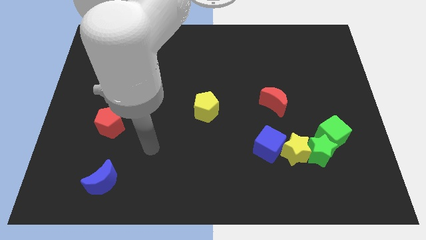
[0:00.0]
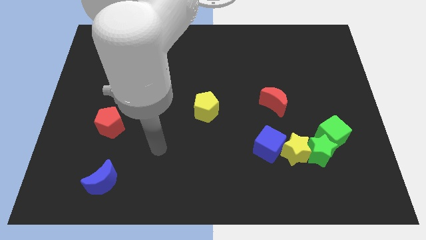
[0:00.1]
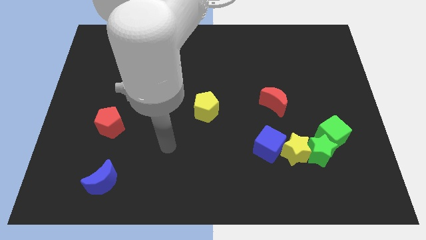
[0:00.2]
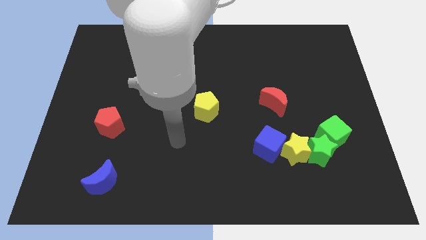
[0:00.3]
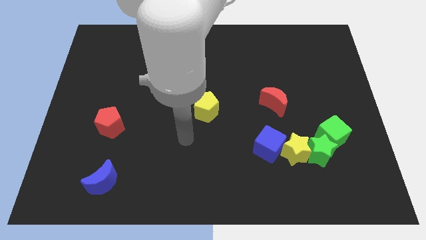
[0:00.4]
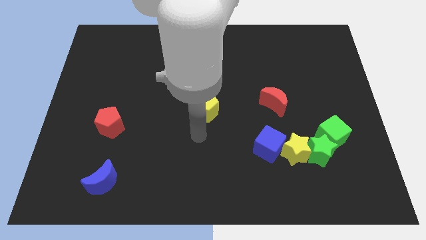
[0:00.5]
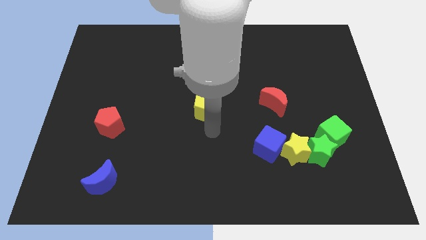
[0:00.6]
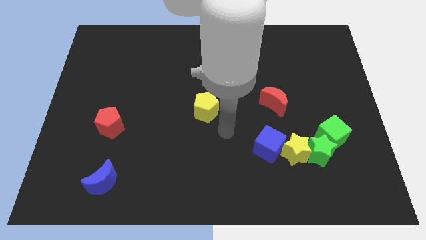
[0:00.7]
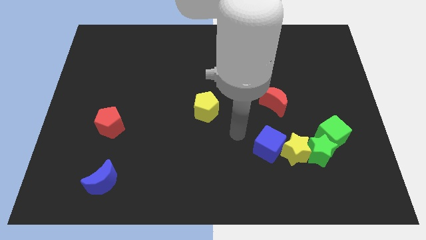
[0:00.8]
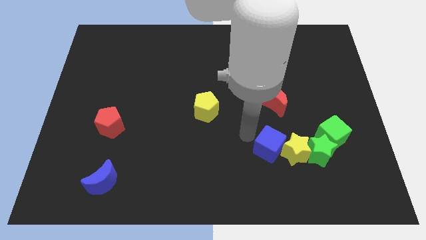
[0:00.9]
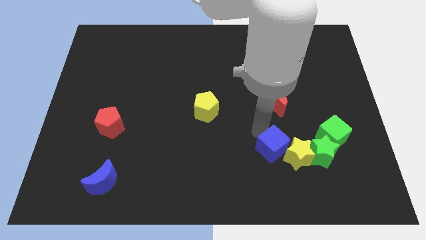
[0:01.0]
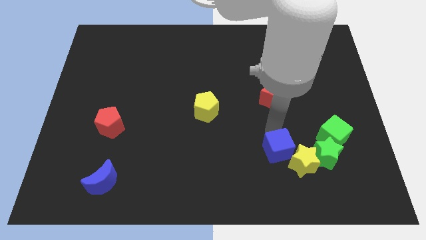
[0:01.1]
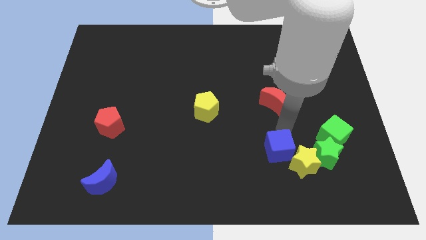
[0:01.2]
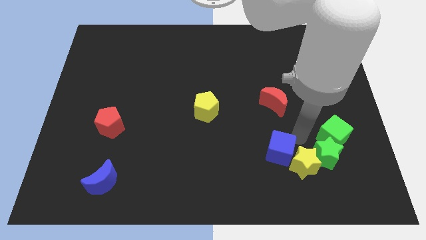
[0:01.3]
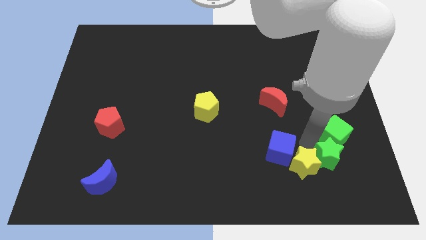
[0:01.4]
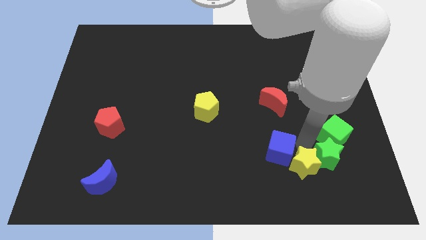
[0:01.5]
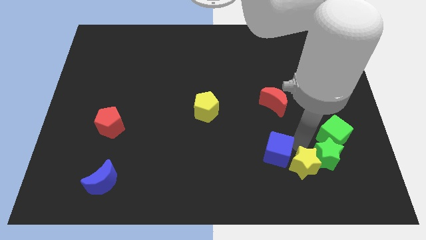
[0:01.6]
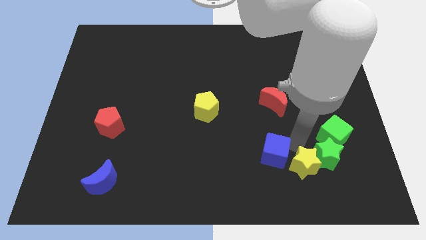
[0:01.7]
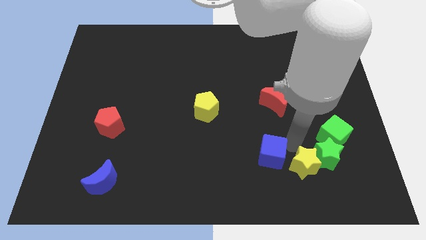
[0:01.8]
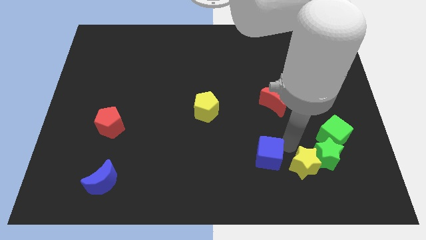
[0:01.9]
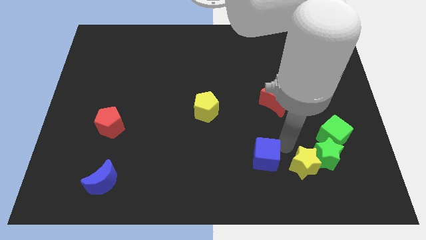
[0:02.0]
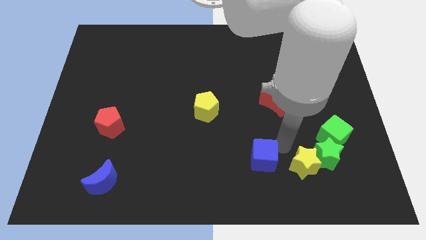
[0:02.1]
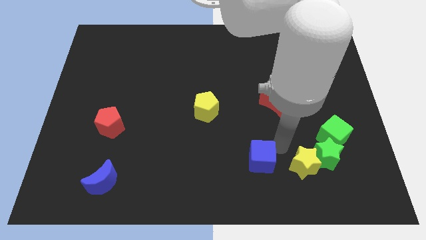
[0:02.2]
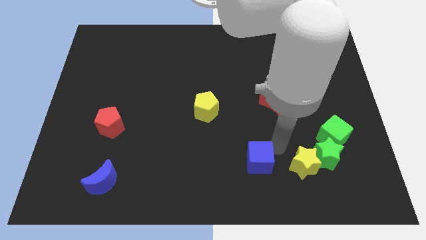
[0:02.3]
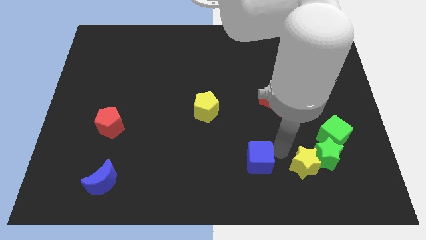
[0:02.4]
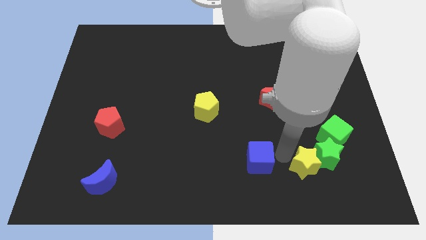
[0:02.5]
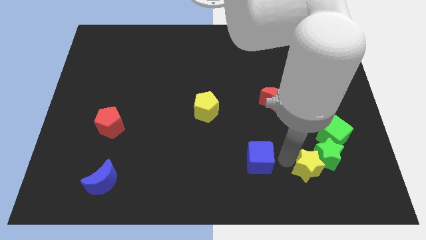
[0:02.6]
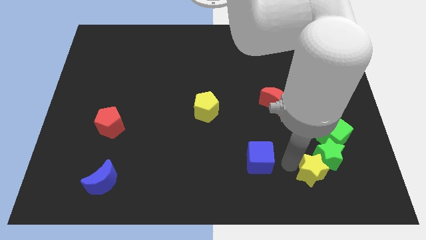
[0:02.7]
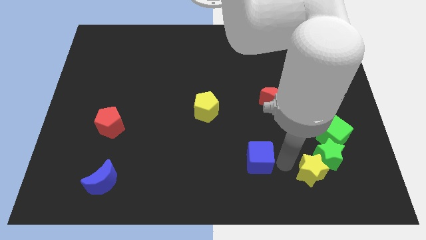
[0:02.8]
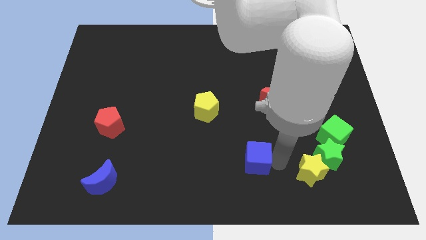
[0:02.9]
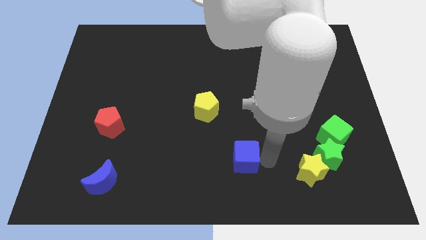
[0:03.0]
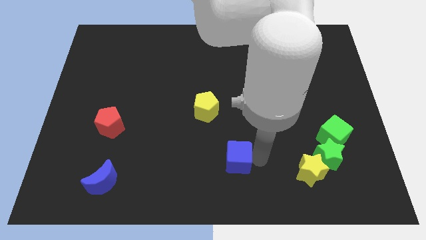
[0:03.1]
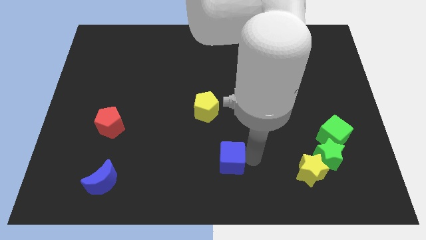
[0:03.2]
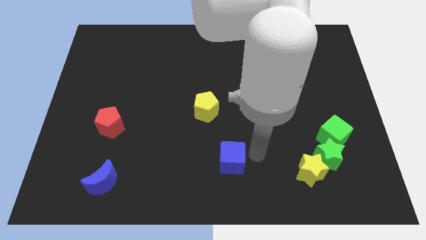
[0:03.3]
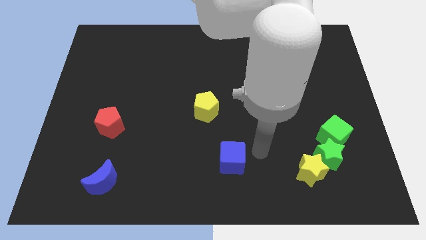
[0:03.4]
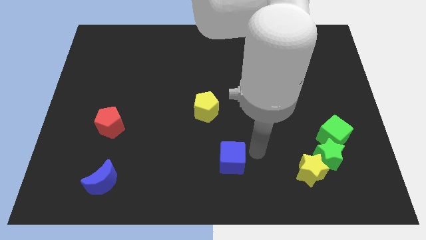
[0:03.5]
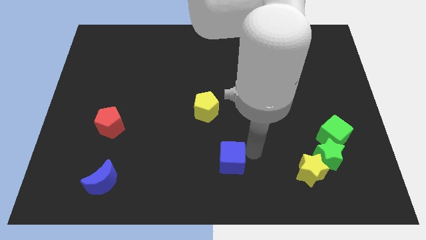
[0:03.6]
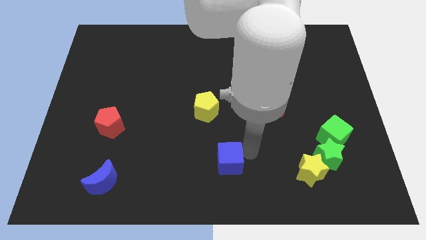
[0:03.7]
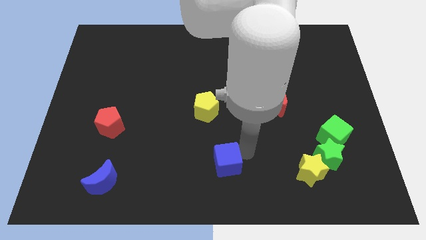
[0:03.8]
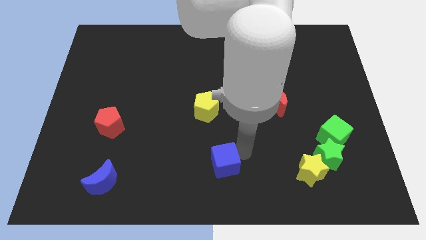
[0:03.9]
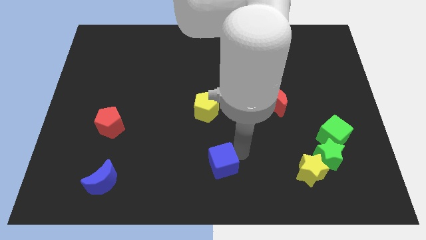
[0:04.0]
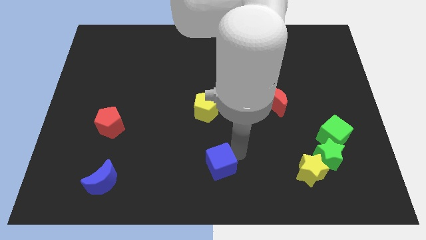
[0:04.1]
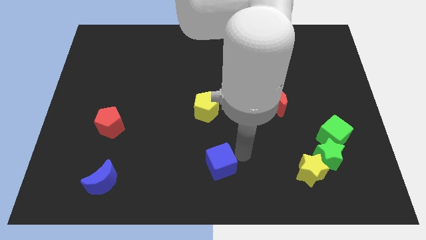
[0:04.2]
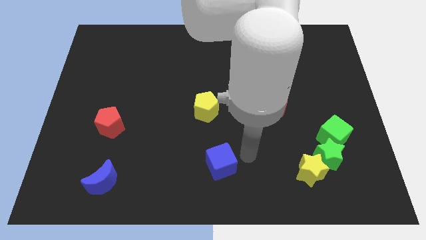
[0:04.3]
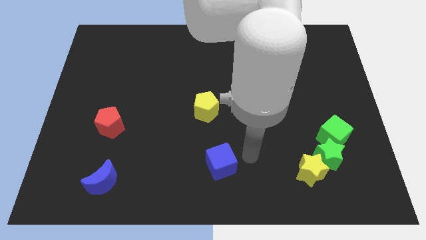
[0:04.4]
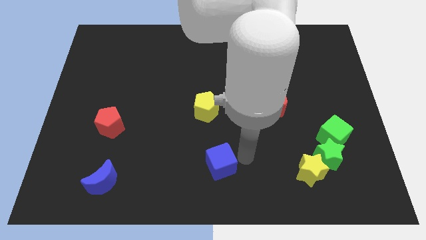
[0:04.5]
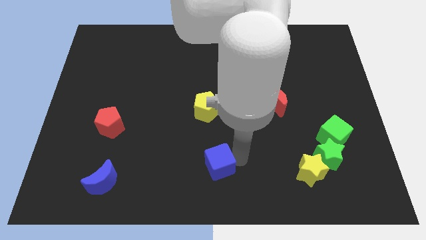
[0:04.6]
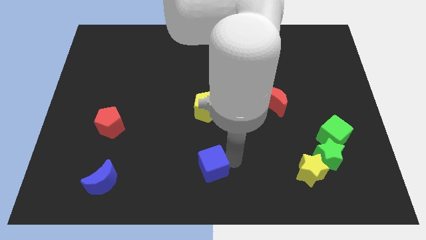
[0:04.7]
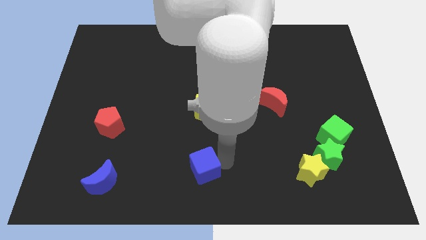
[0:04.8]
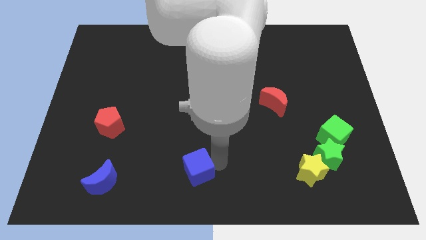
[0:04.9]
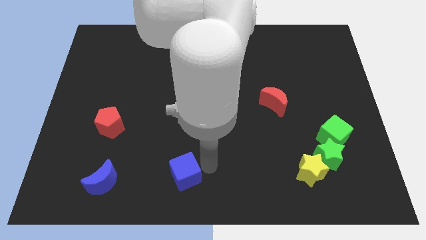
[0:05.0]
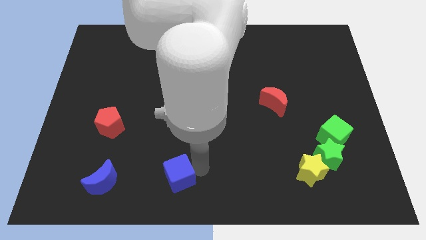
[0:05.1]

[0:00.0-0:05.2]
slide the blue cube right of the blue moon

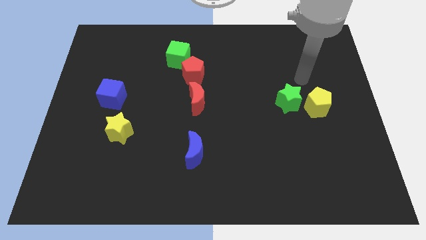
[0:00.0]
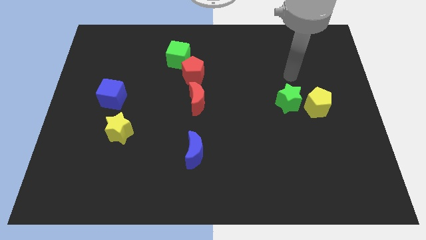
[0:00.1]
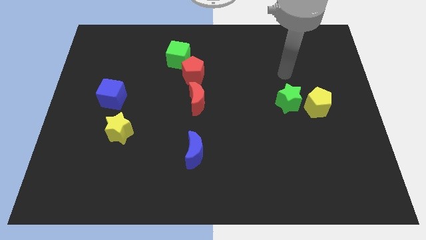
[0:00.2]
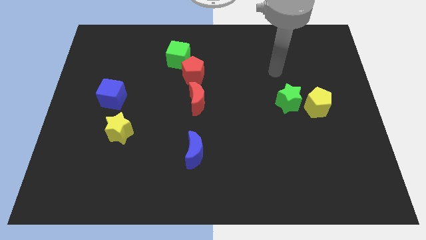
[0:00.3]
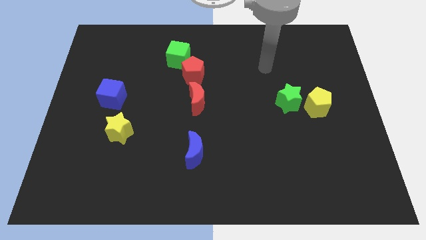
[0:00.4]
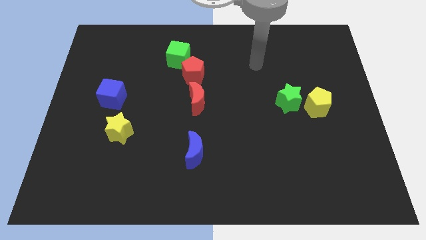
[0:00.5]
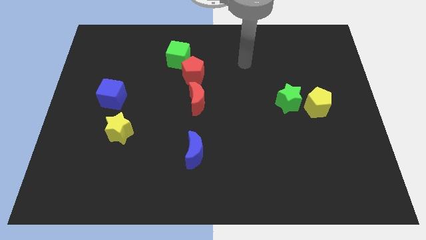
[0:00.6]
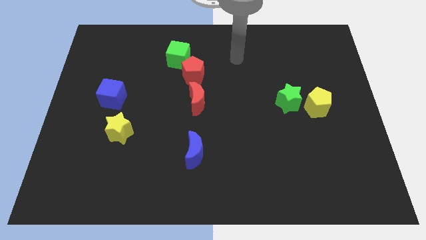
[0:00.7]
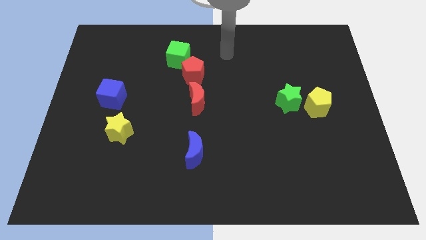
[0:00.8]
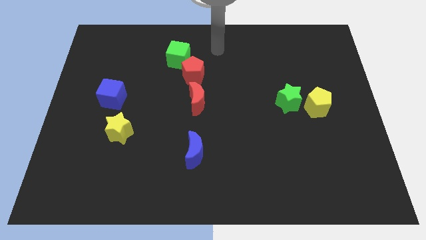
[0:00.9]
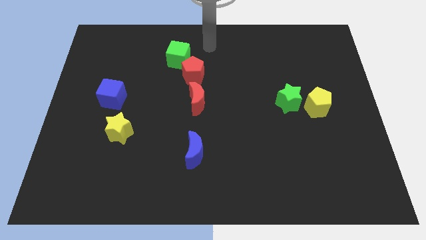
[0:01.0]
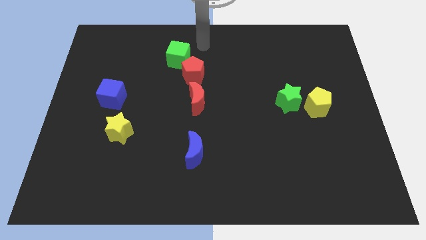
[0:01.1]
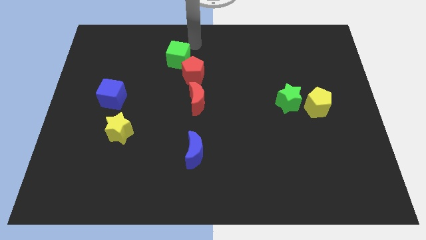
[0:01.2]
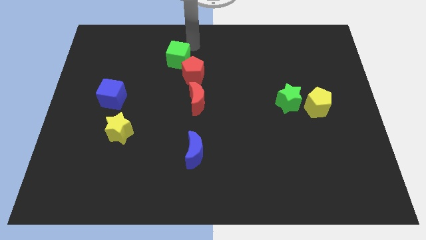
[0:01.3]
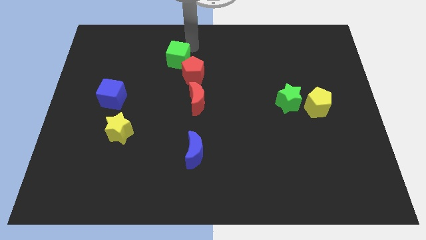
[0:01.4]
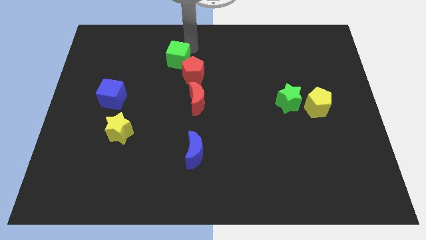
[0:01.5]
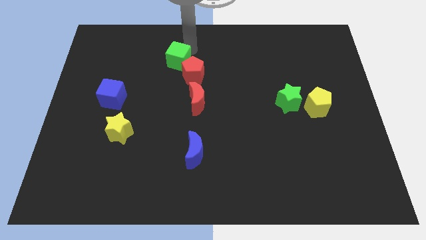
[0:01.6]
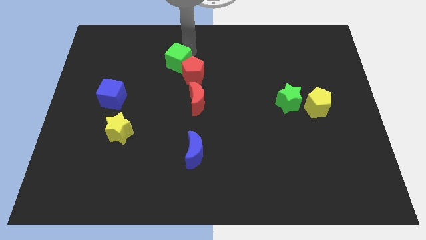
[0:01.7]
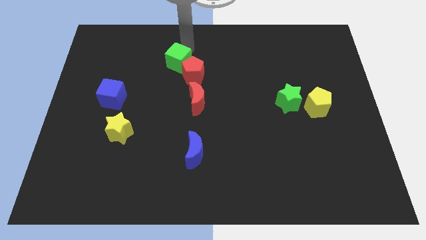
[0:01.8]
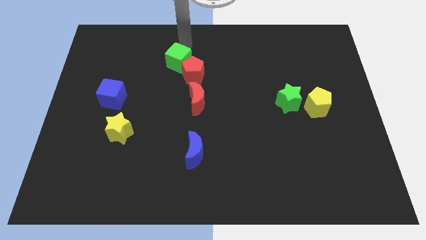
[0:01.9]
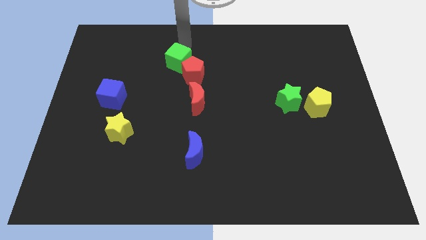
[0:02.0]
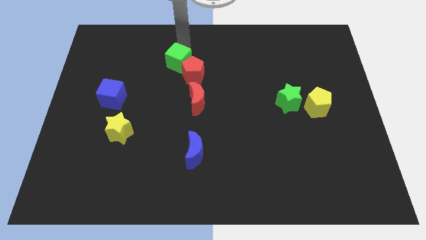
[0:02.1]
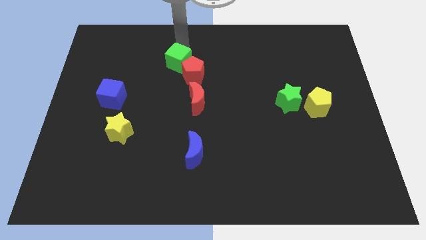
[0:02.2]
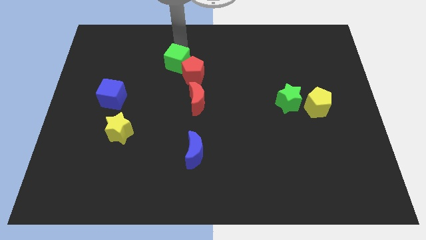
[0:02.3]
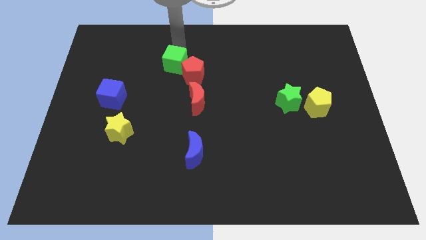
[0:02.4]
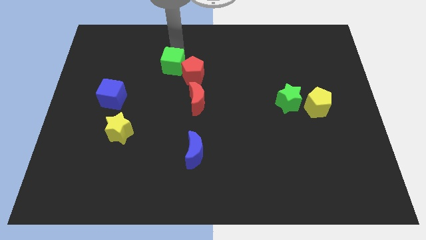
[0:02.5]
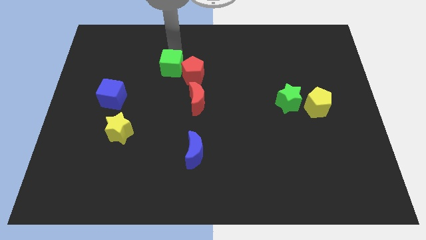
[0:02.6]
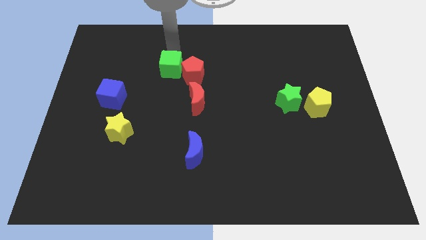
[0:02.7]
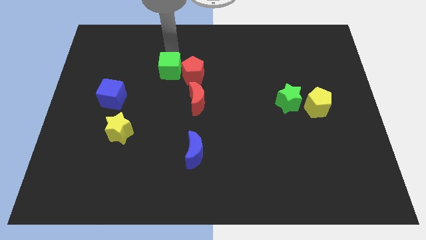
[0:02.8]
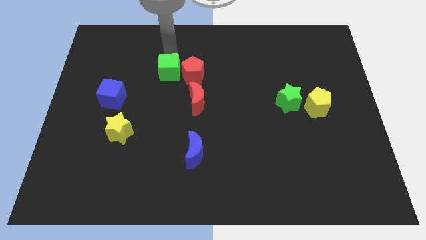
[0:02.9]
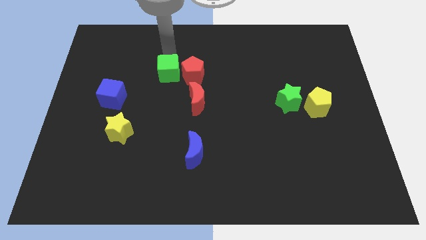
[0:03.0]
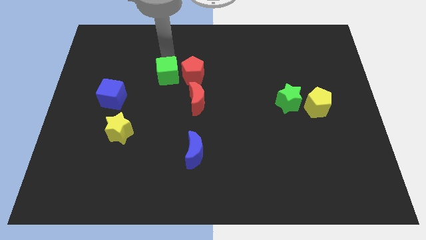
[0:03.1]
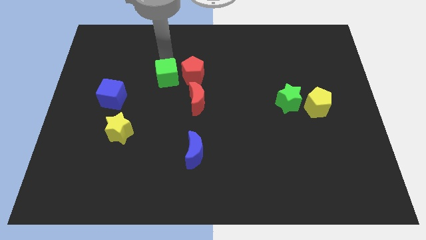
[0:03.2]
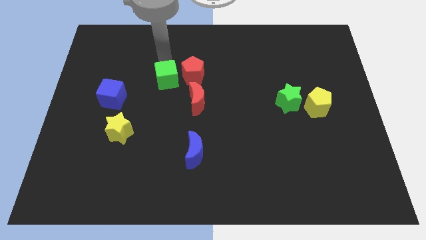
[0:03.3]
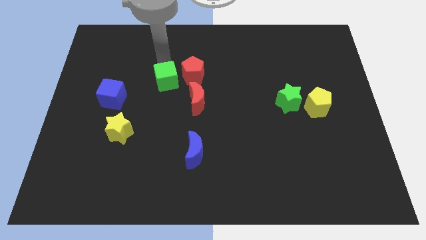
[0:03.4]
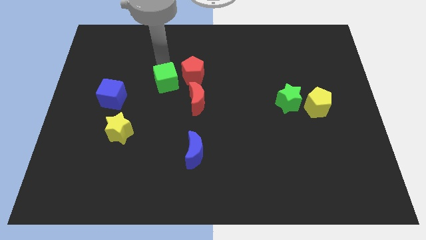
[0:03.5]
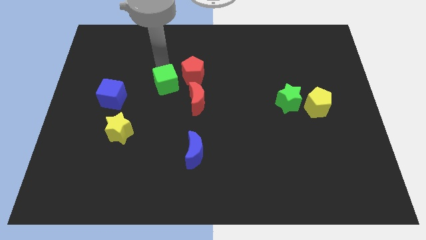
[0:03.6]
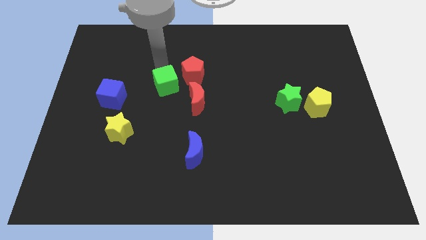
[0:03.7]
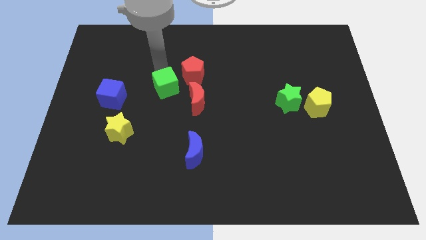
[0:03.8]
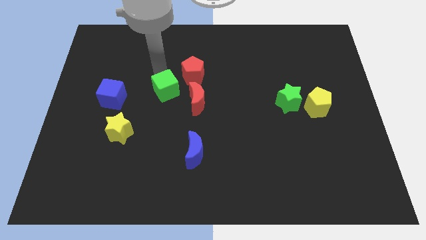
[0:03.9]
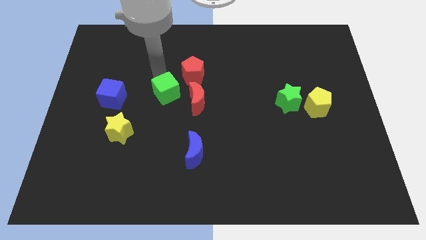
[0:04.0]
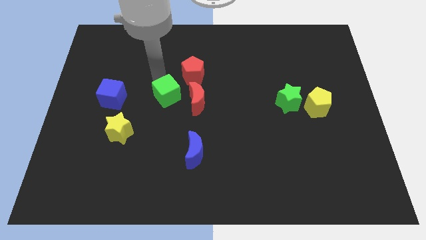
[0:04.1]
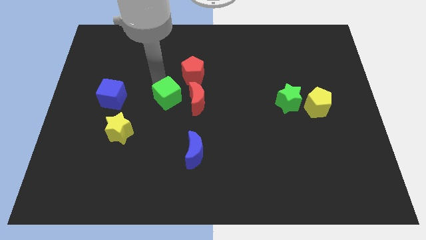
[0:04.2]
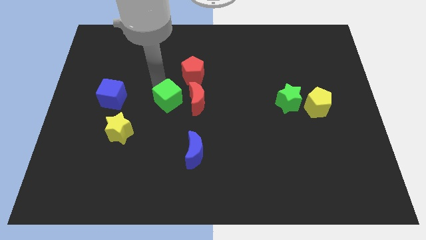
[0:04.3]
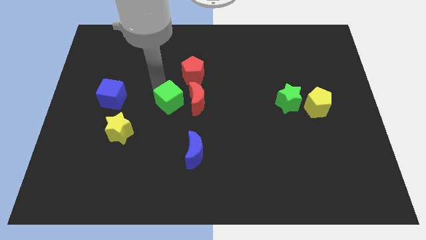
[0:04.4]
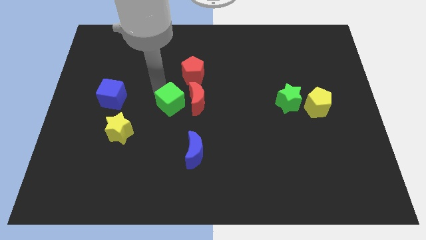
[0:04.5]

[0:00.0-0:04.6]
slide the green cube to the bottom side of the red pentagon
